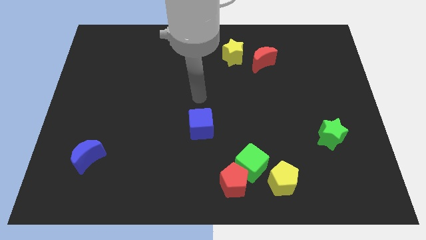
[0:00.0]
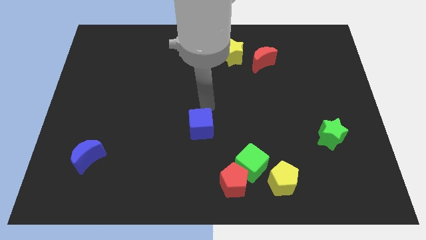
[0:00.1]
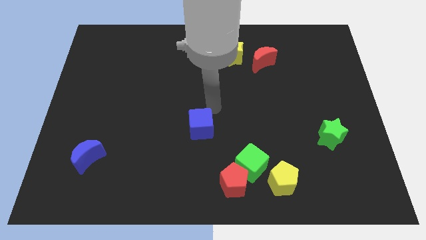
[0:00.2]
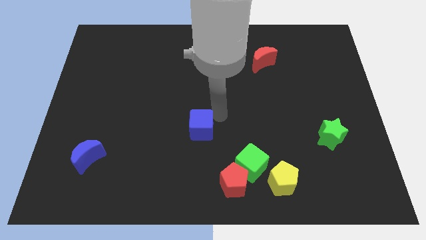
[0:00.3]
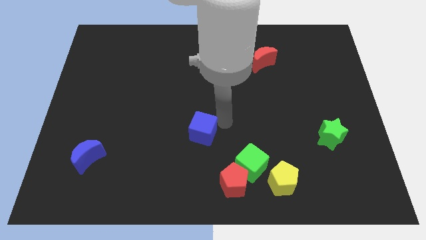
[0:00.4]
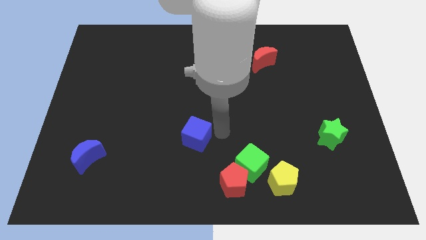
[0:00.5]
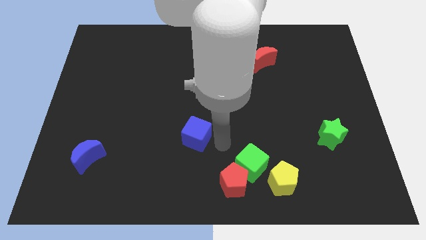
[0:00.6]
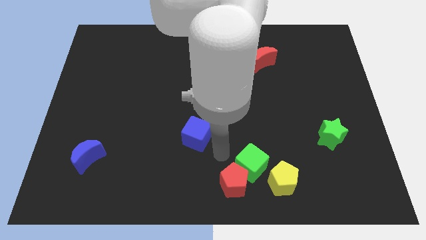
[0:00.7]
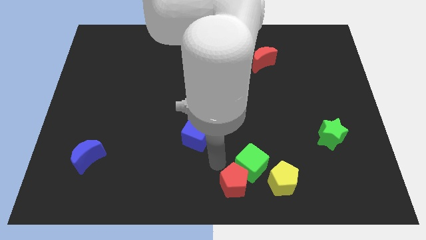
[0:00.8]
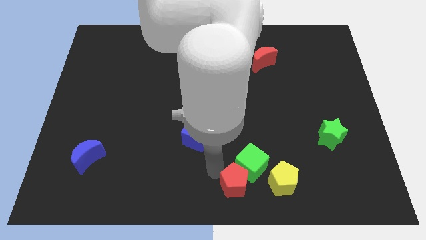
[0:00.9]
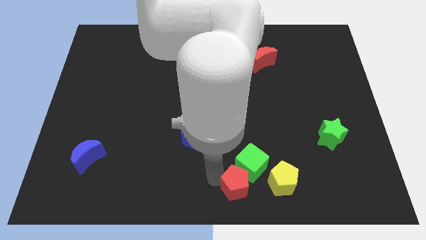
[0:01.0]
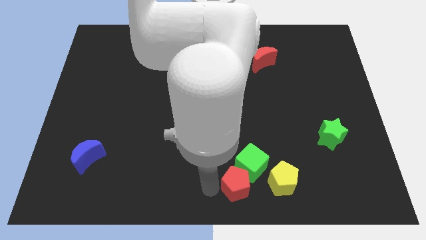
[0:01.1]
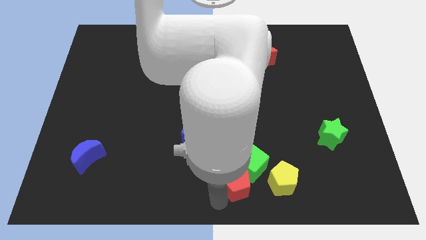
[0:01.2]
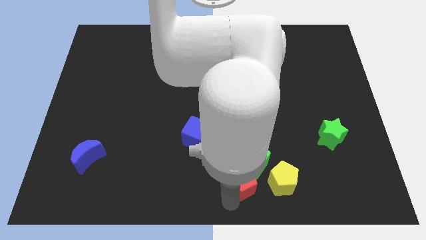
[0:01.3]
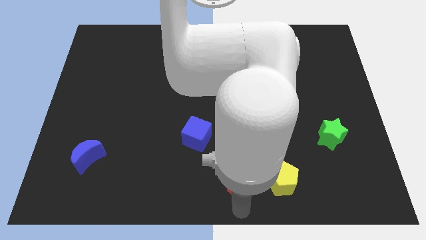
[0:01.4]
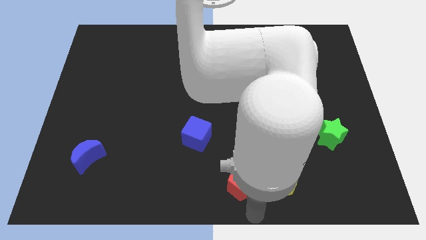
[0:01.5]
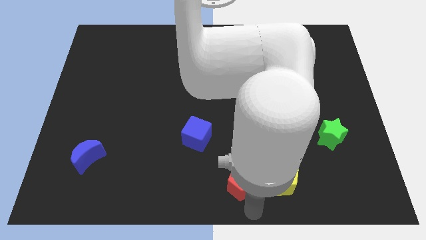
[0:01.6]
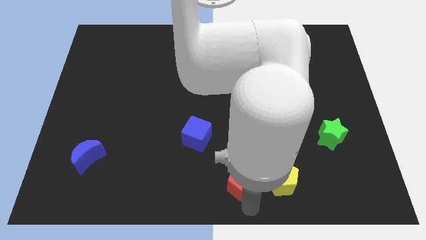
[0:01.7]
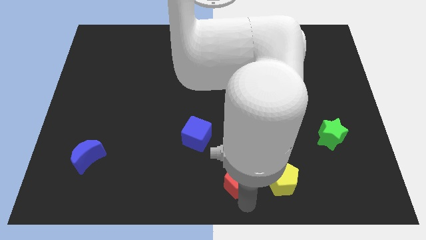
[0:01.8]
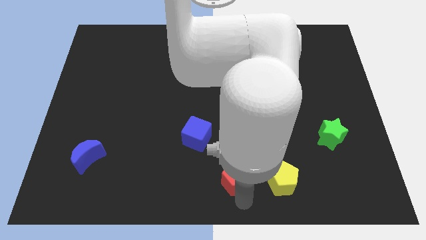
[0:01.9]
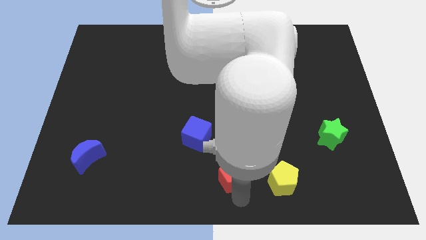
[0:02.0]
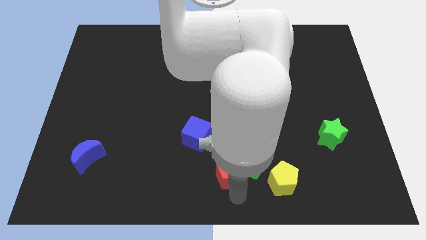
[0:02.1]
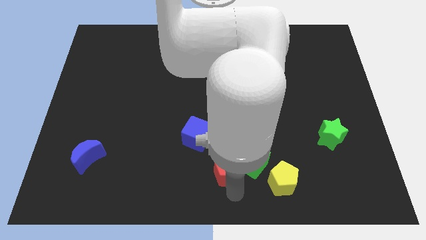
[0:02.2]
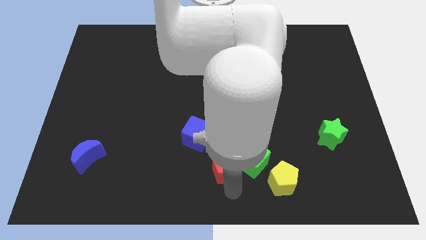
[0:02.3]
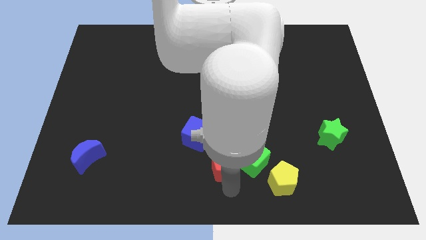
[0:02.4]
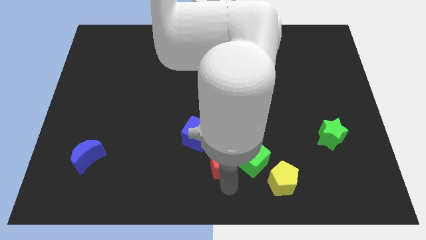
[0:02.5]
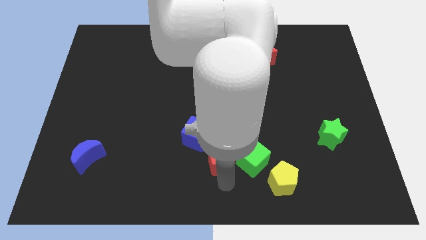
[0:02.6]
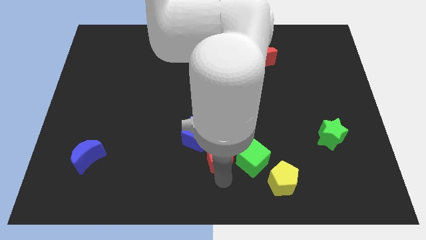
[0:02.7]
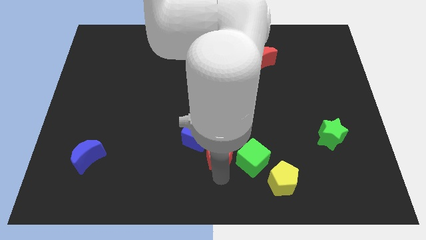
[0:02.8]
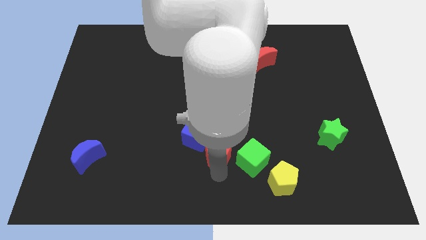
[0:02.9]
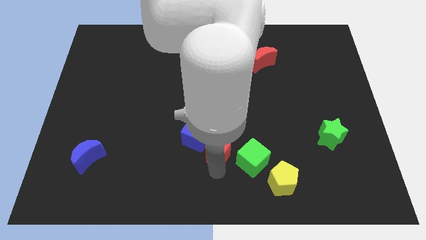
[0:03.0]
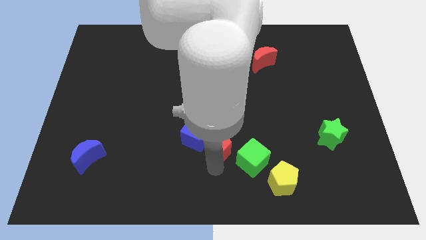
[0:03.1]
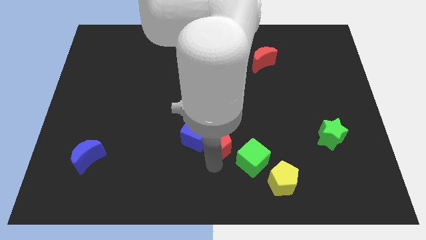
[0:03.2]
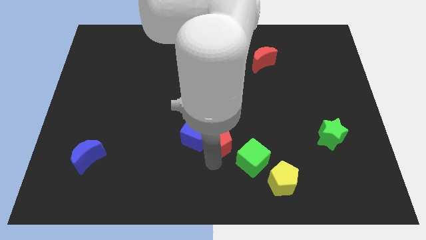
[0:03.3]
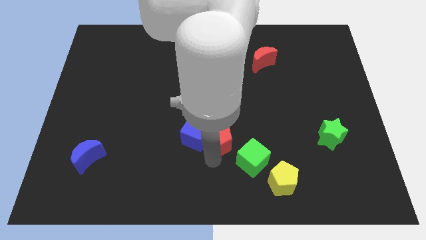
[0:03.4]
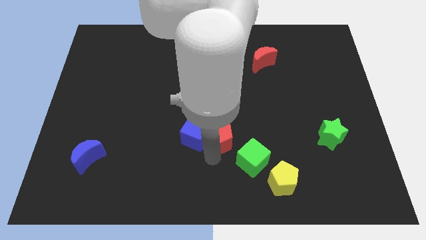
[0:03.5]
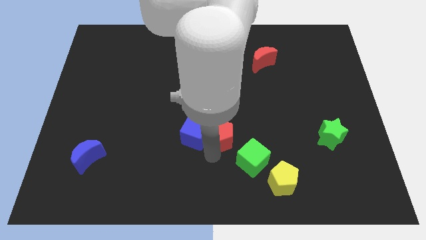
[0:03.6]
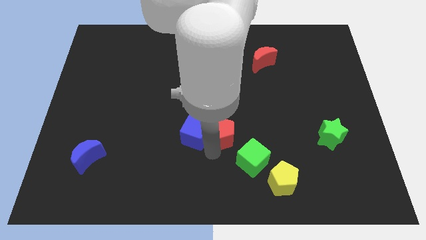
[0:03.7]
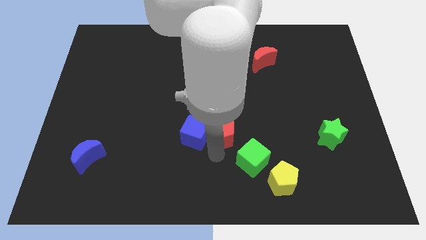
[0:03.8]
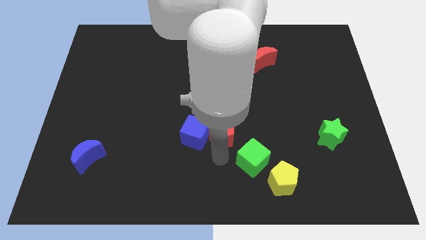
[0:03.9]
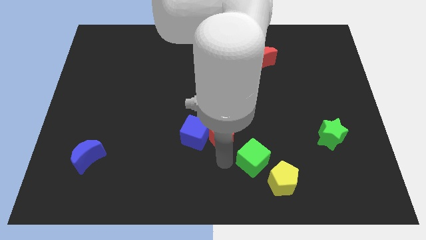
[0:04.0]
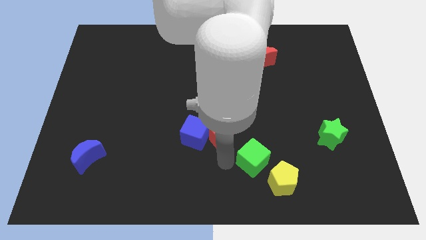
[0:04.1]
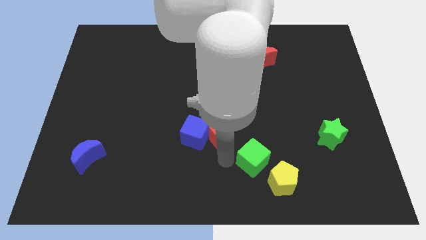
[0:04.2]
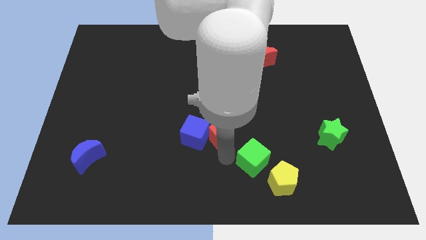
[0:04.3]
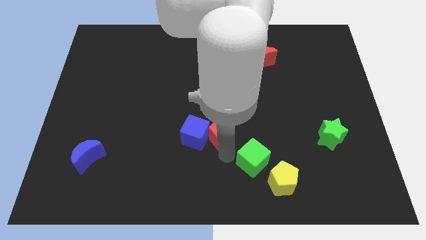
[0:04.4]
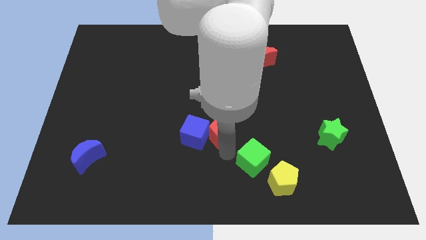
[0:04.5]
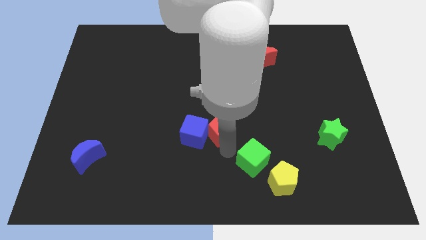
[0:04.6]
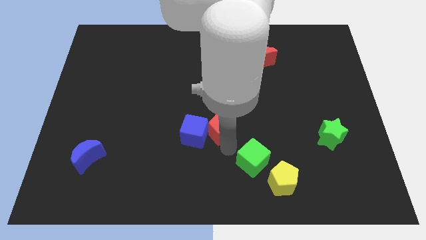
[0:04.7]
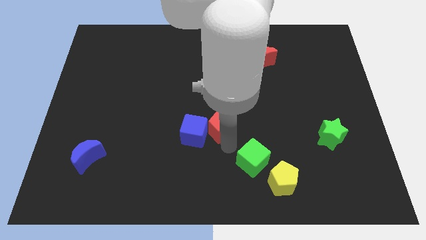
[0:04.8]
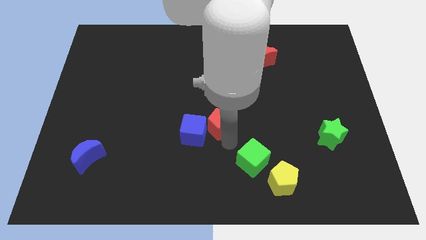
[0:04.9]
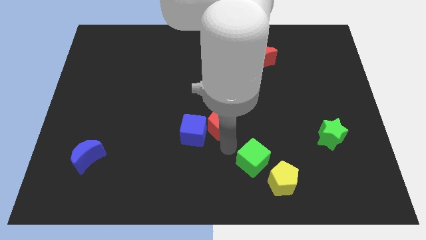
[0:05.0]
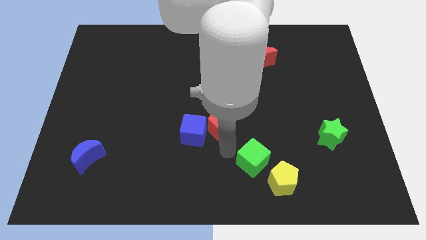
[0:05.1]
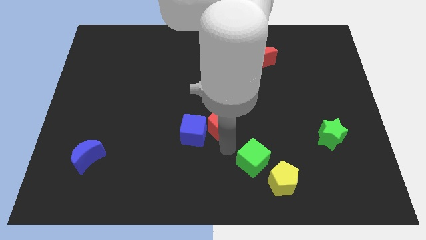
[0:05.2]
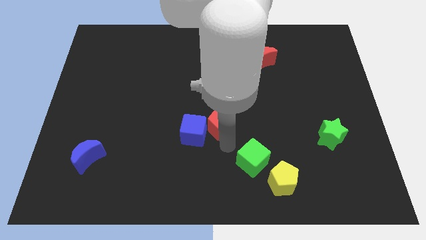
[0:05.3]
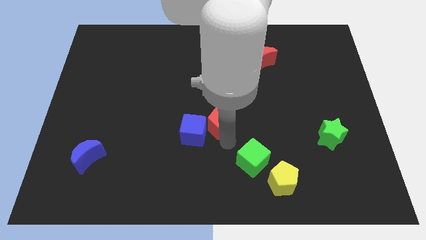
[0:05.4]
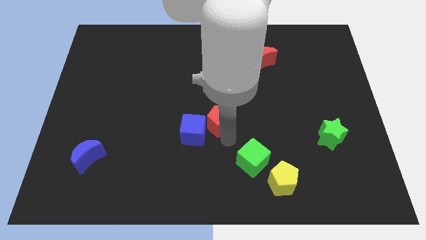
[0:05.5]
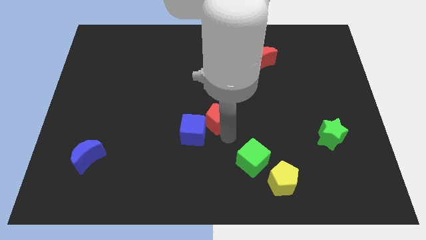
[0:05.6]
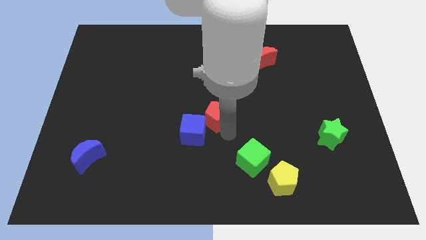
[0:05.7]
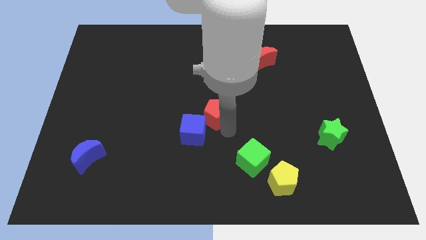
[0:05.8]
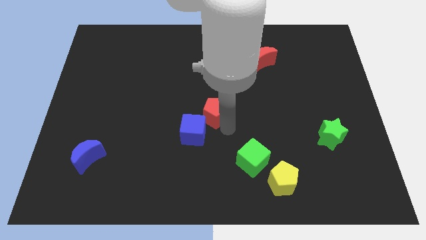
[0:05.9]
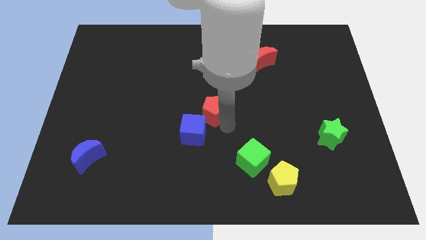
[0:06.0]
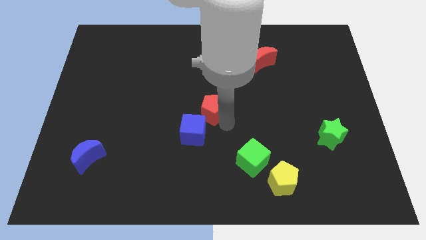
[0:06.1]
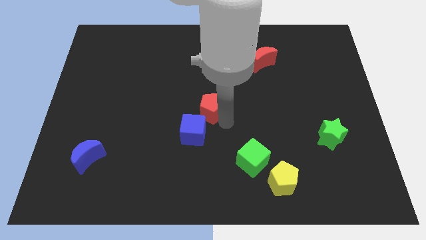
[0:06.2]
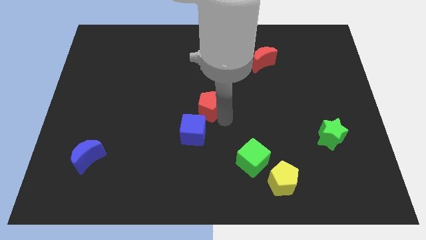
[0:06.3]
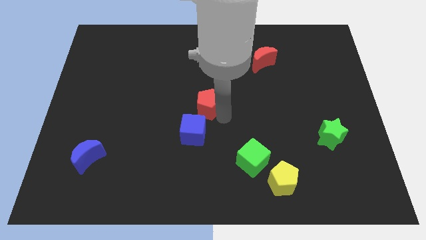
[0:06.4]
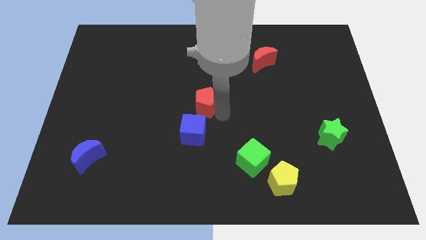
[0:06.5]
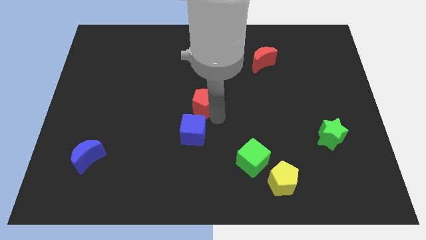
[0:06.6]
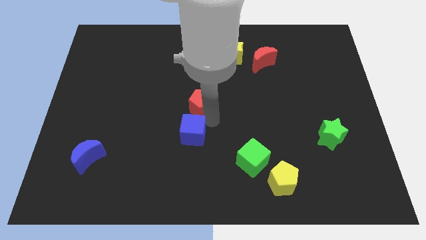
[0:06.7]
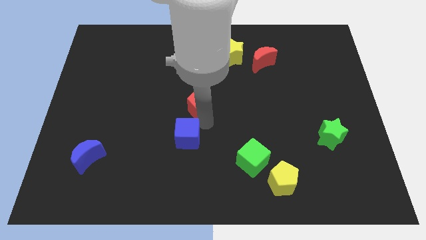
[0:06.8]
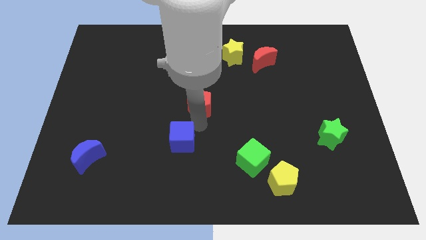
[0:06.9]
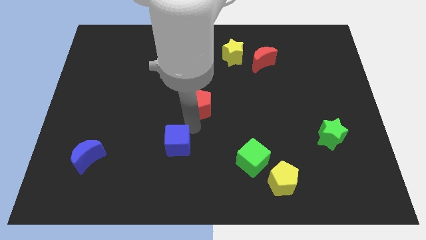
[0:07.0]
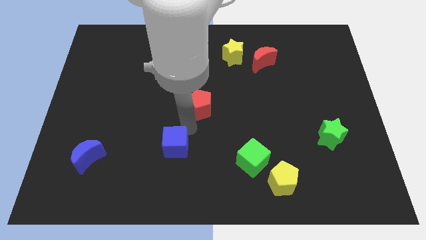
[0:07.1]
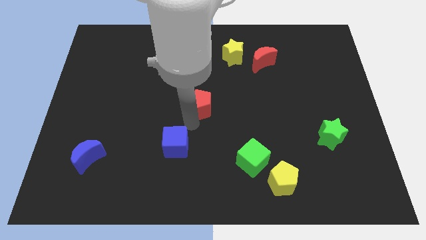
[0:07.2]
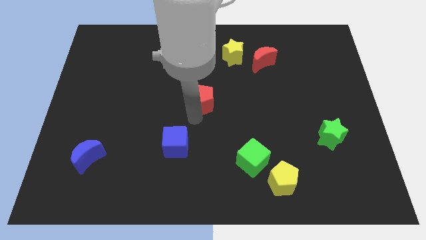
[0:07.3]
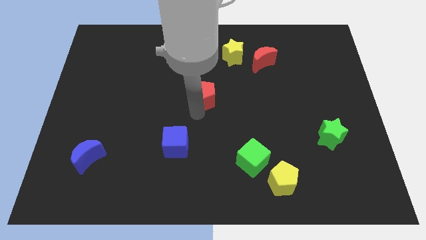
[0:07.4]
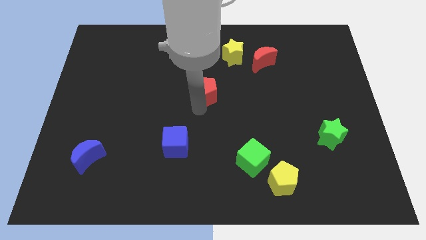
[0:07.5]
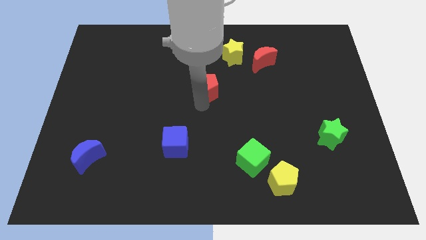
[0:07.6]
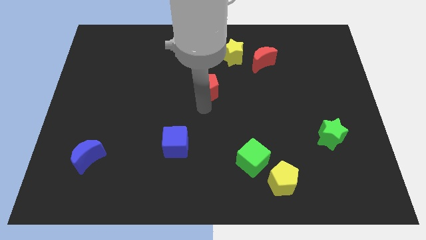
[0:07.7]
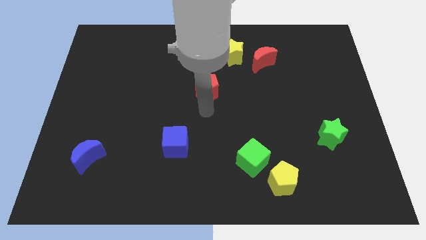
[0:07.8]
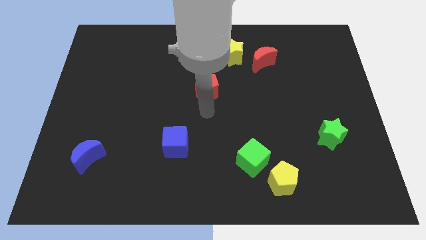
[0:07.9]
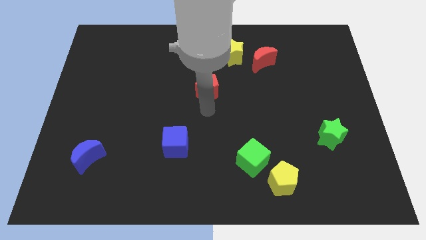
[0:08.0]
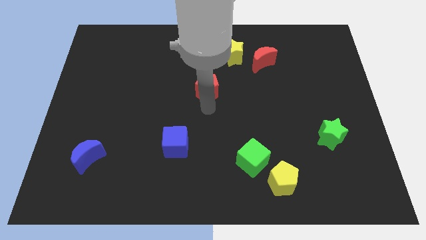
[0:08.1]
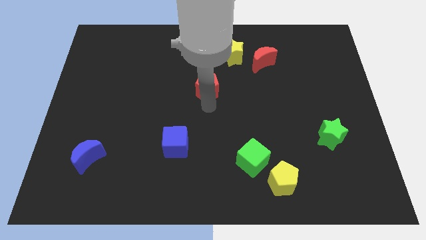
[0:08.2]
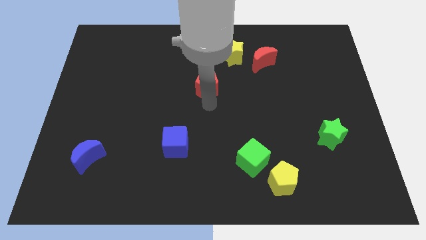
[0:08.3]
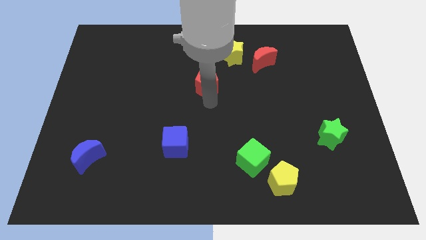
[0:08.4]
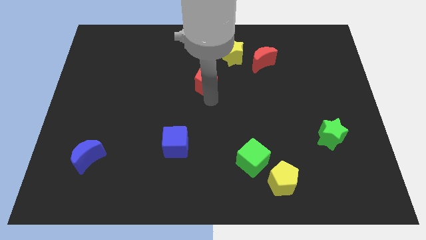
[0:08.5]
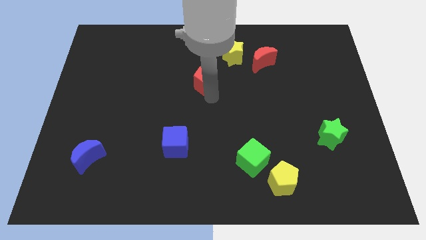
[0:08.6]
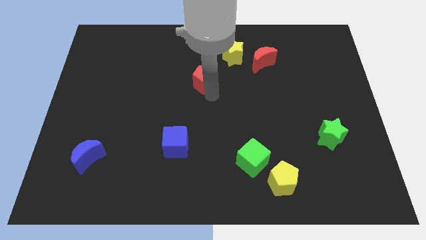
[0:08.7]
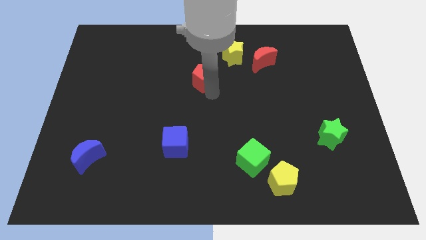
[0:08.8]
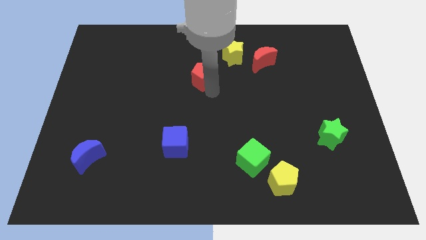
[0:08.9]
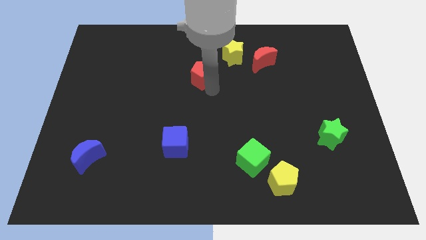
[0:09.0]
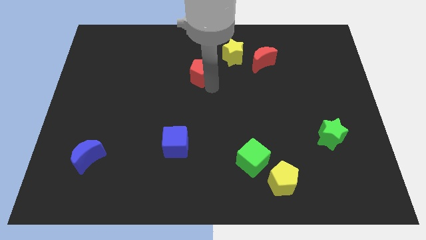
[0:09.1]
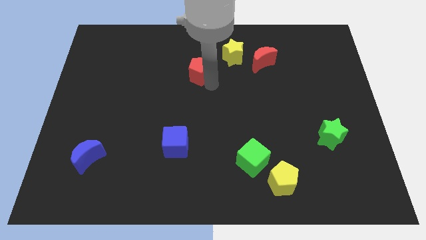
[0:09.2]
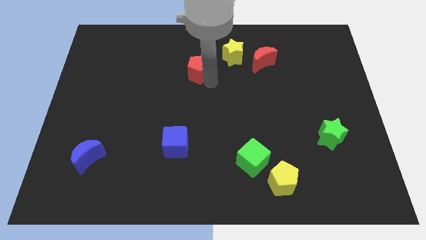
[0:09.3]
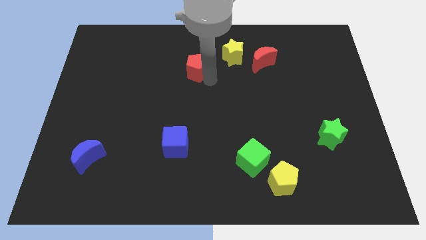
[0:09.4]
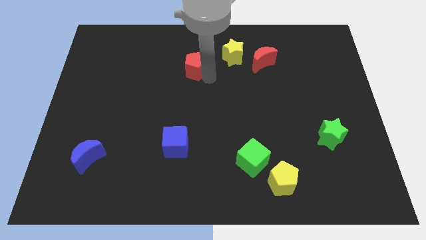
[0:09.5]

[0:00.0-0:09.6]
push the red pentagon just left of the yellow star
